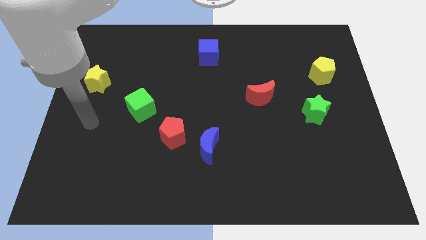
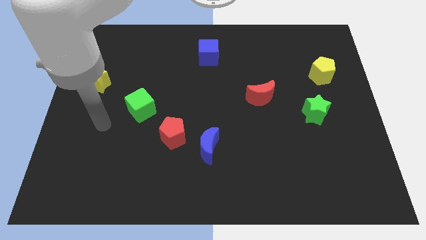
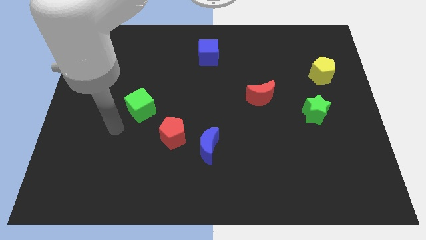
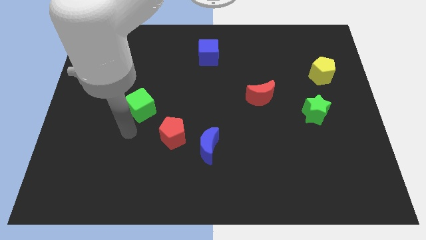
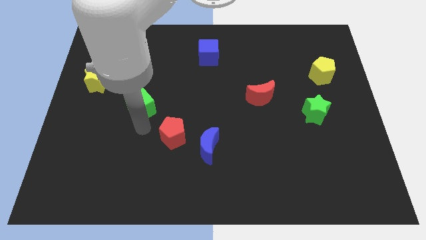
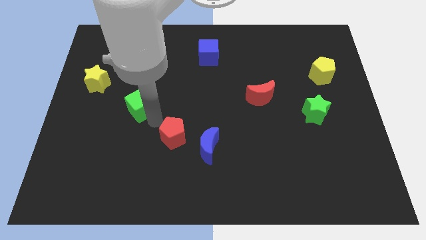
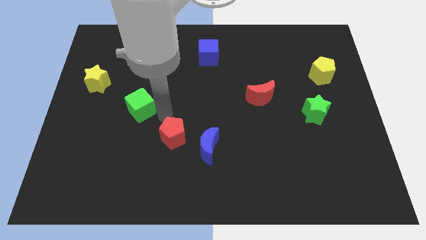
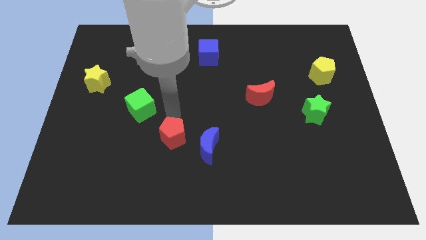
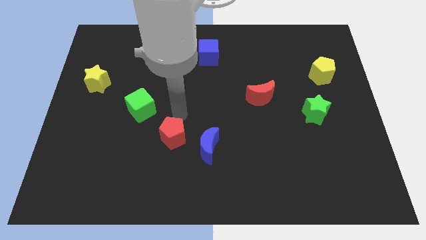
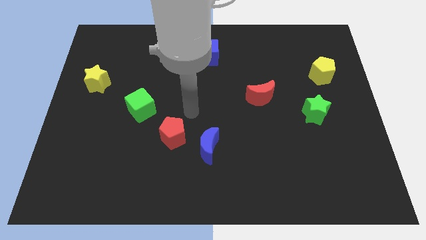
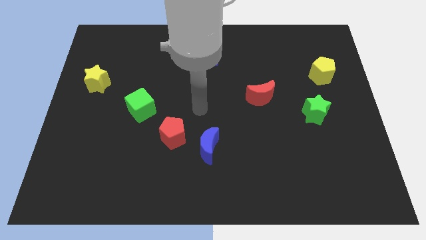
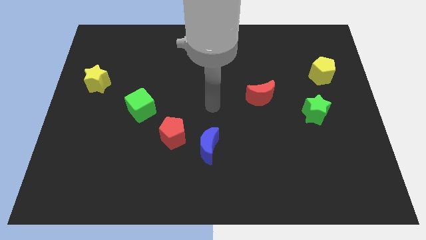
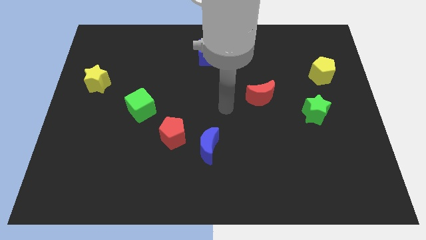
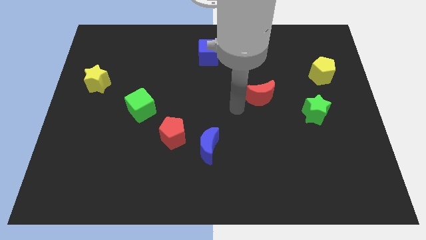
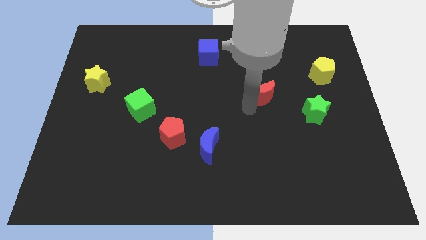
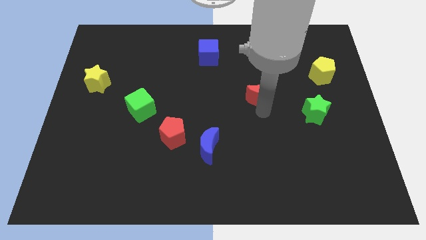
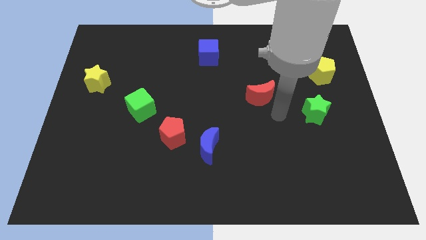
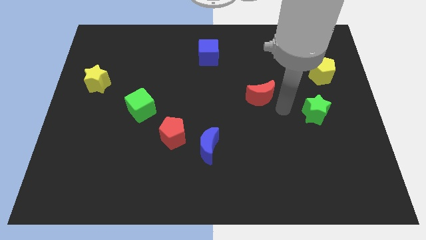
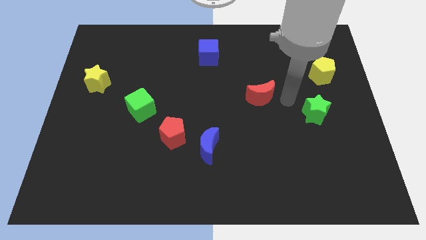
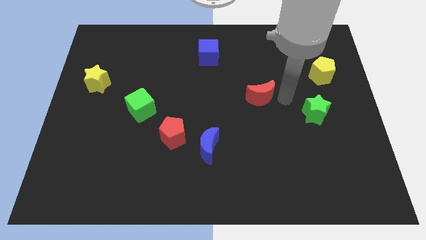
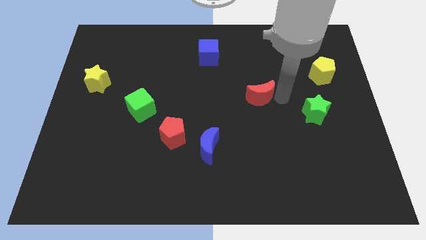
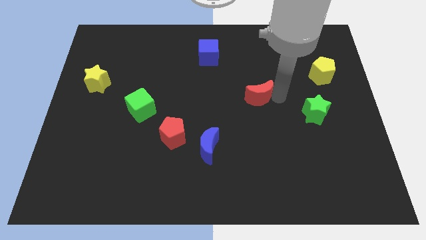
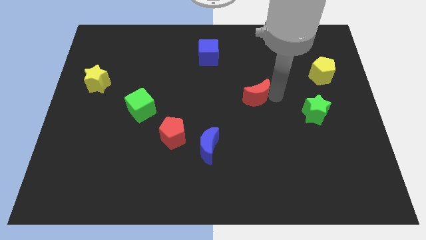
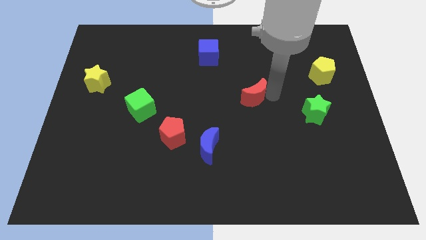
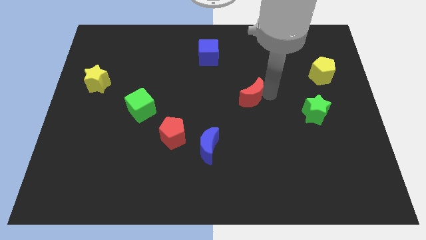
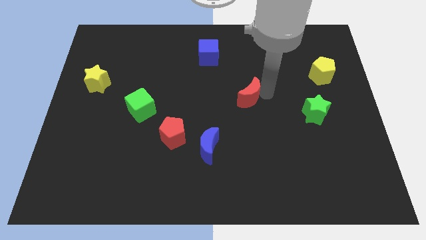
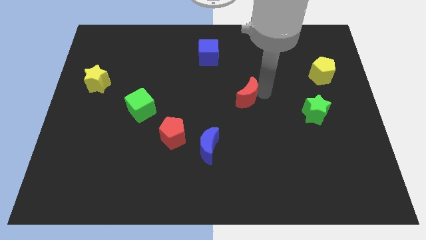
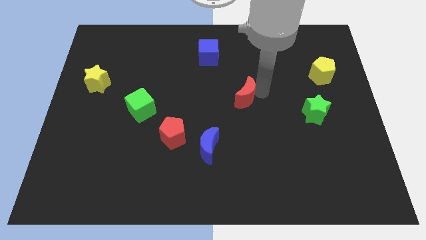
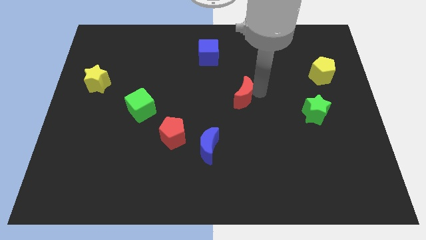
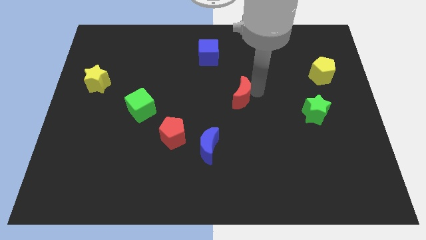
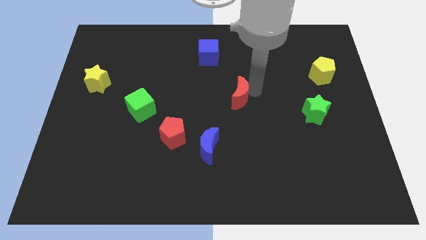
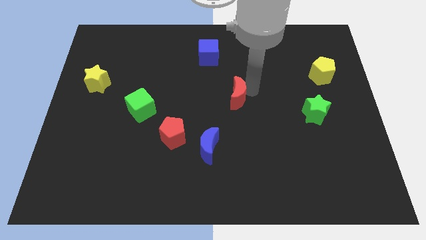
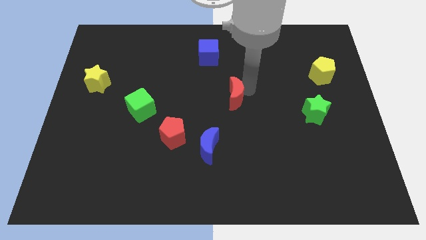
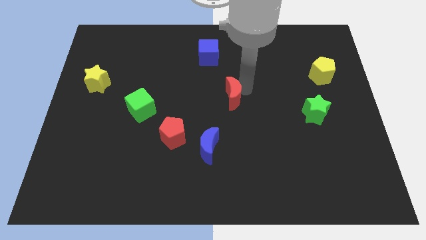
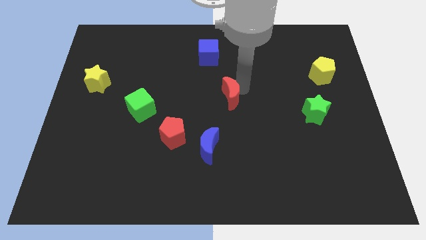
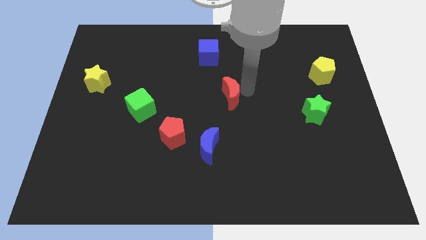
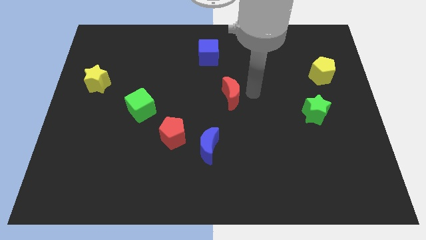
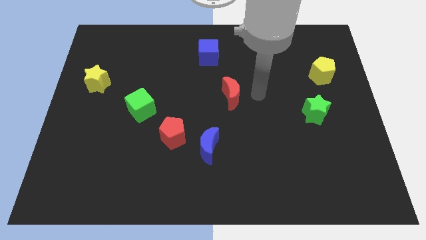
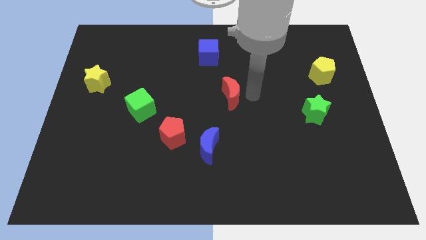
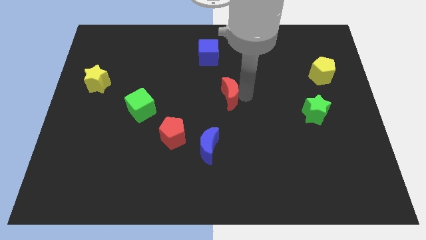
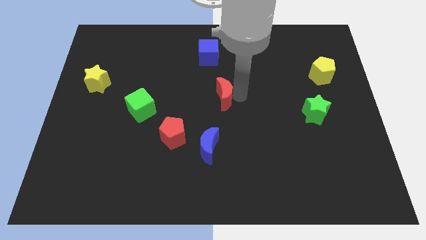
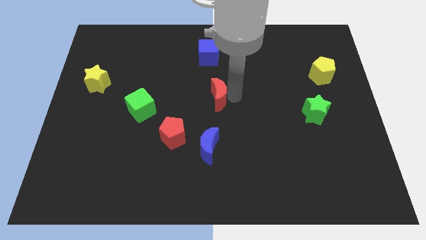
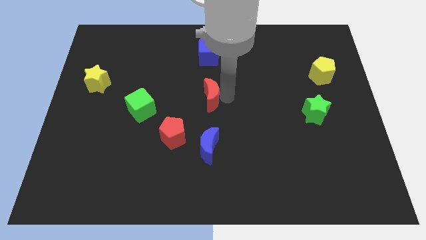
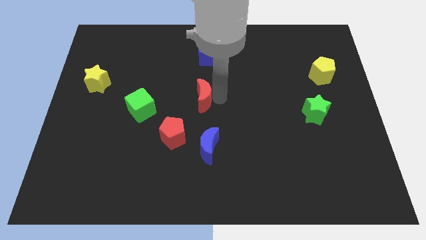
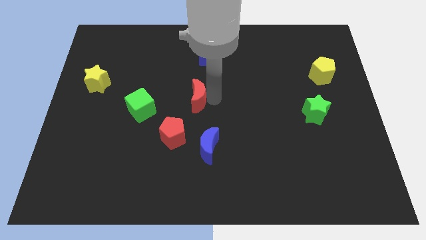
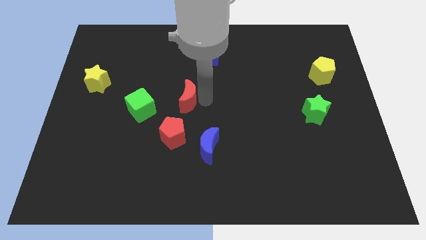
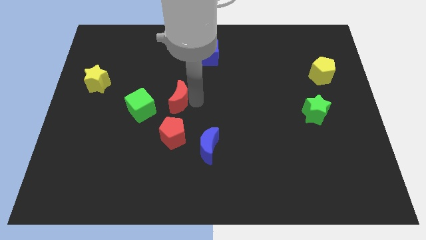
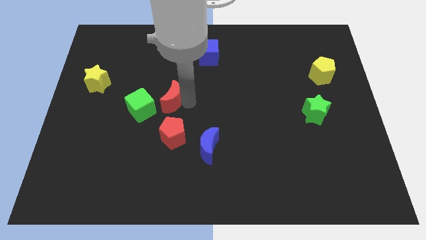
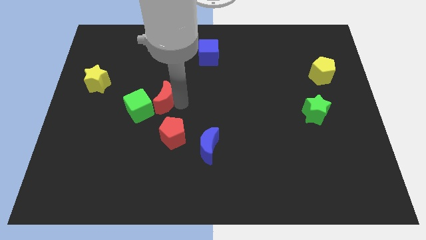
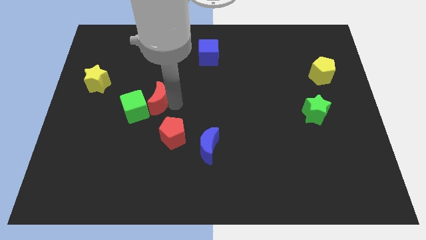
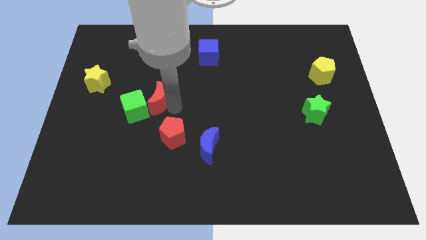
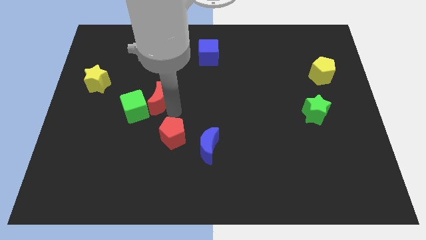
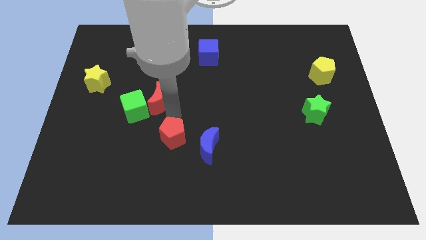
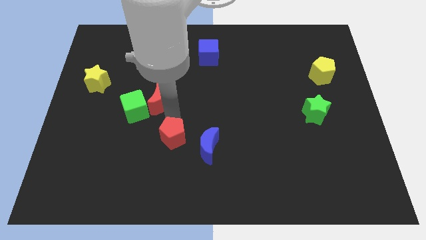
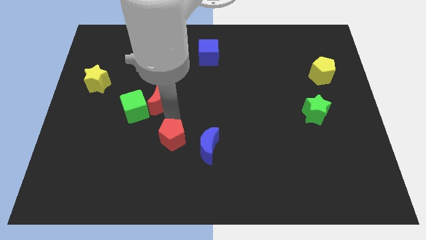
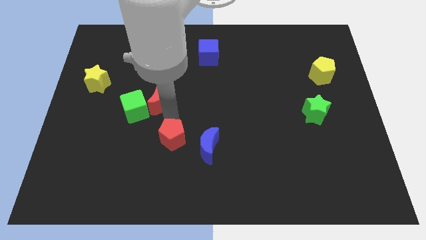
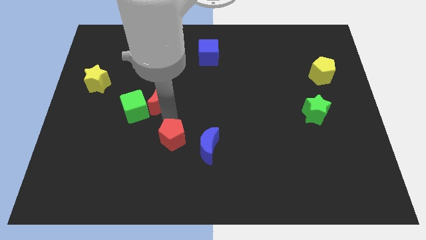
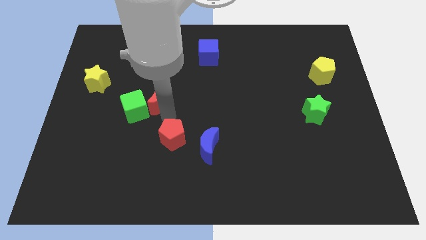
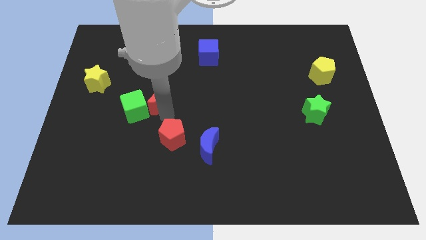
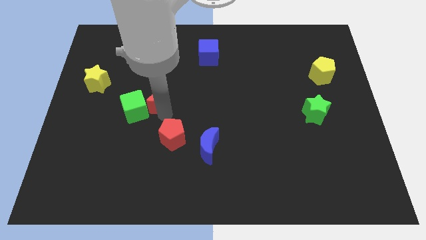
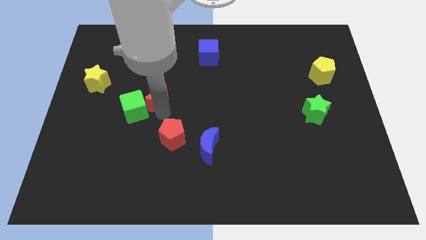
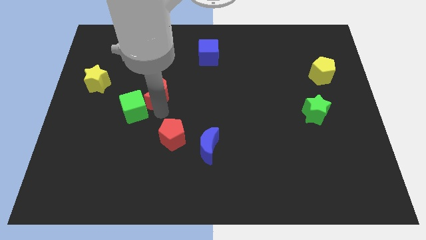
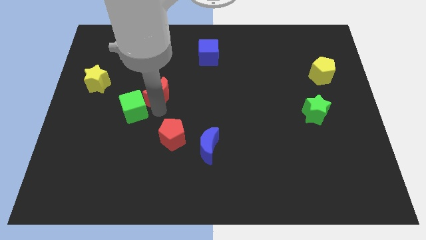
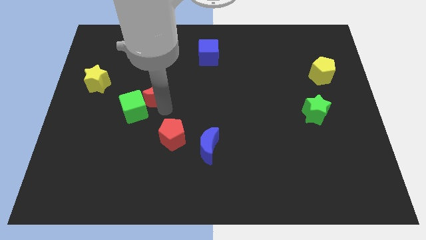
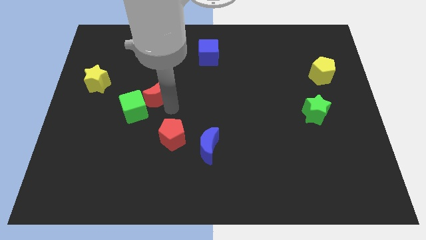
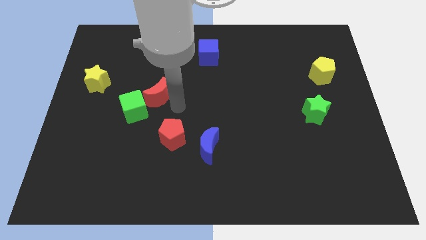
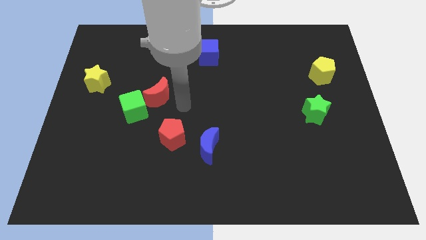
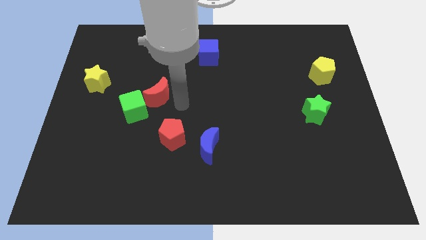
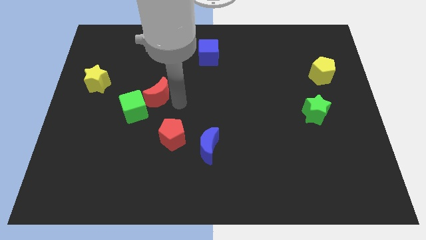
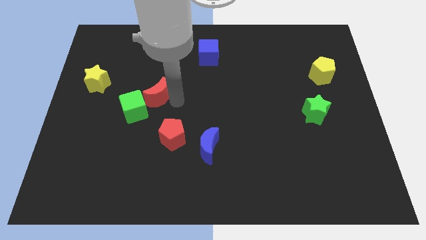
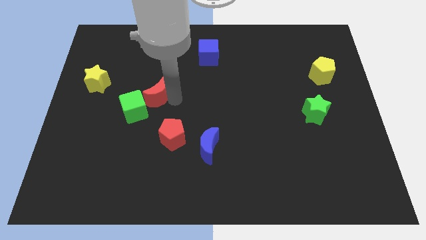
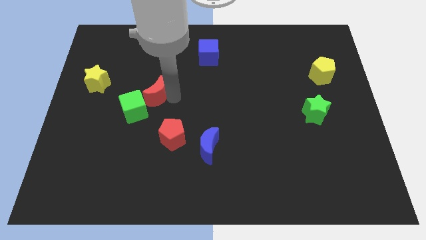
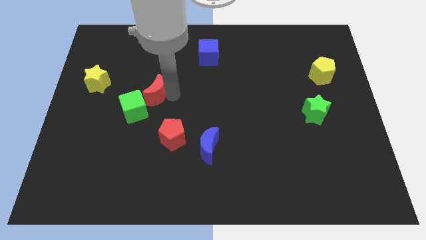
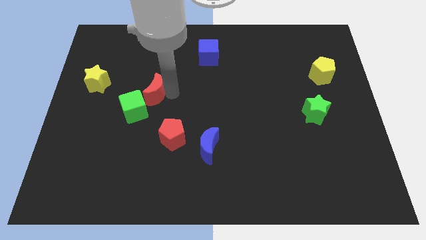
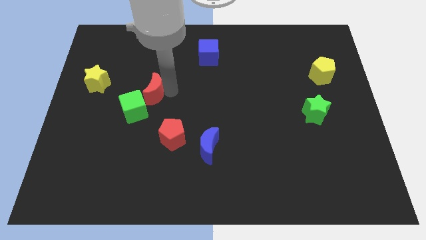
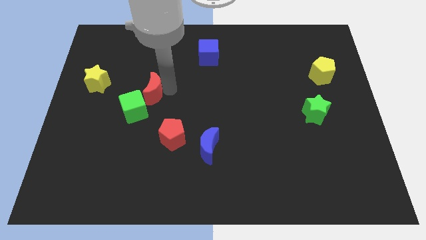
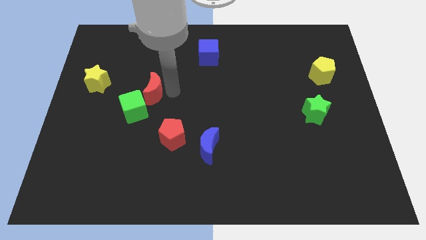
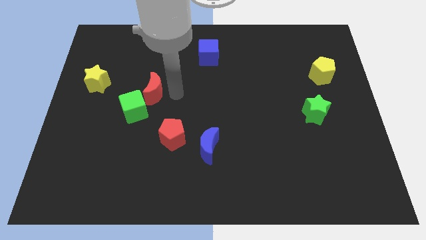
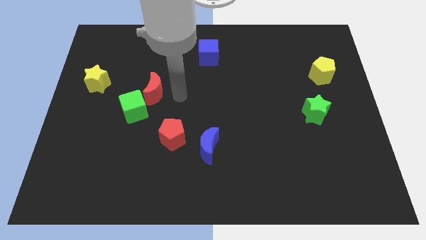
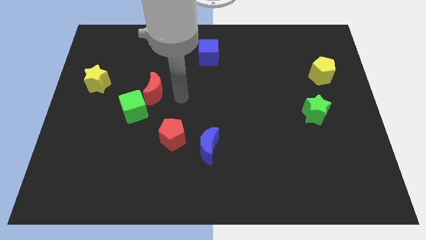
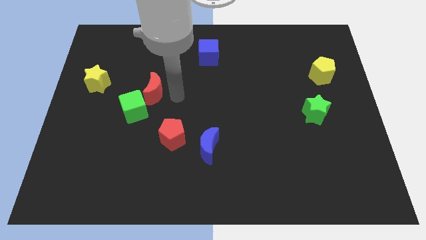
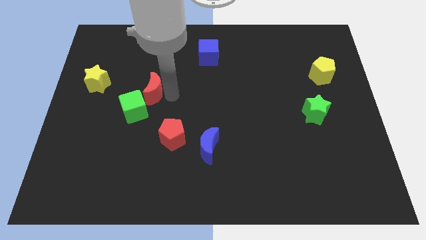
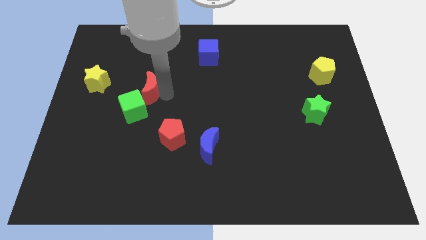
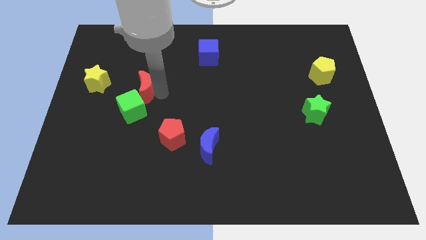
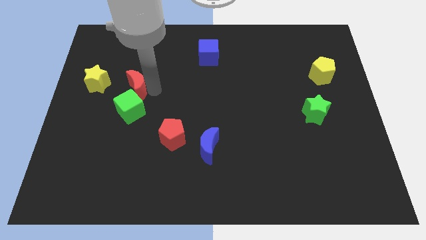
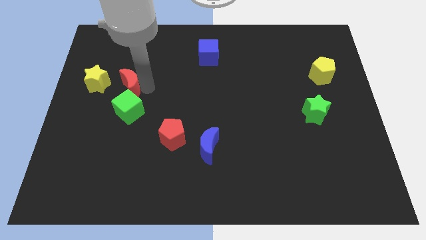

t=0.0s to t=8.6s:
push the red moon diagonally up and to the left of the green cube
